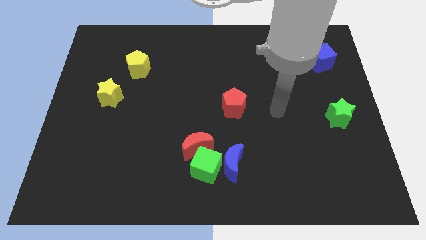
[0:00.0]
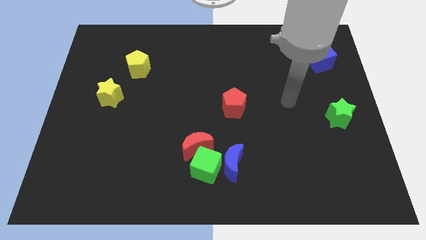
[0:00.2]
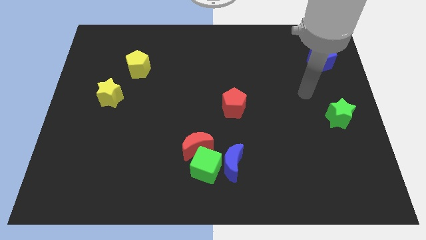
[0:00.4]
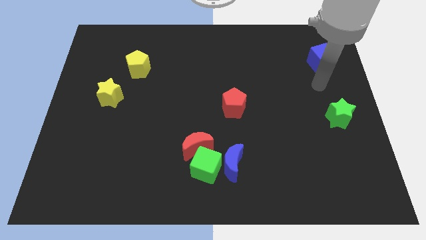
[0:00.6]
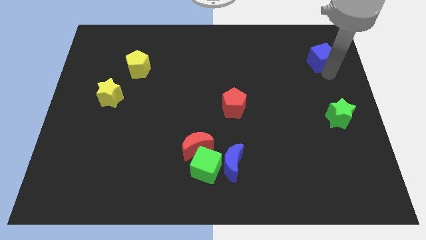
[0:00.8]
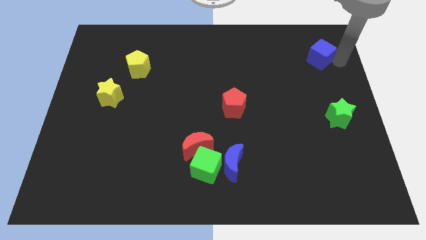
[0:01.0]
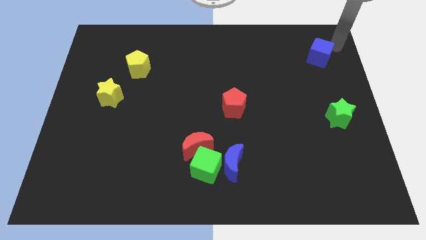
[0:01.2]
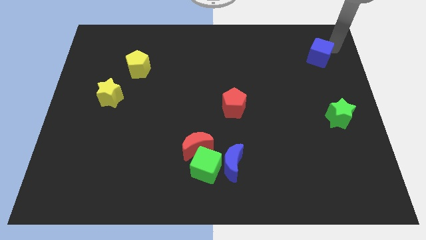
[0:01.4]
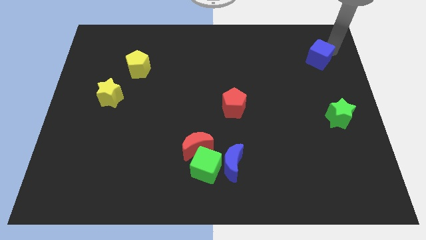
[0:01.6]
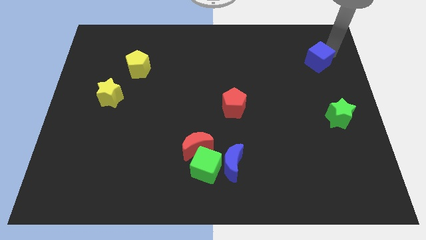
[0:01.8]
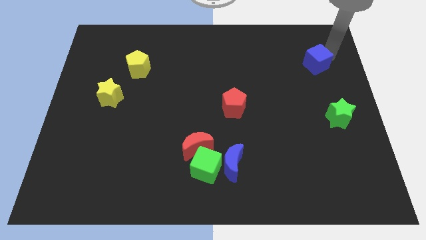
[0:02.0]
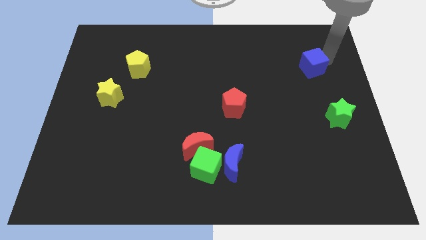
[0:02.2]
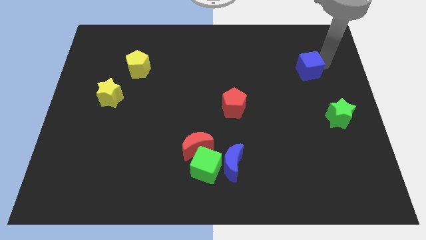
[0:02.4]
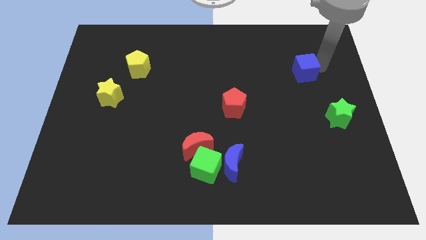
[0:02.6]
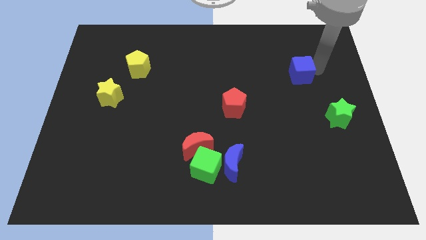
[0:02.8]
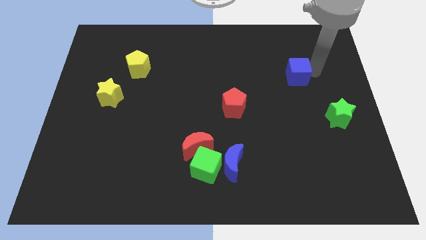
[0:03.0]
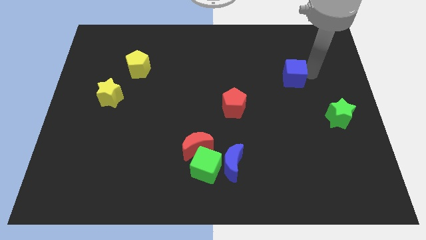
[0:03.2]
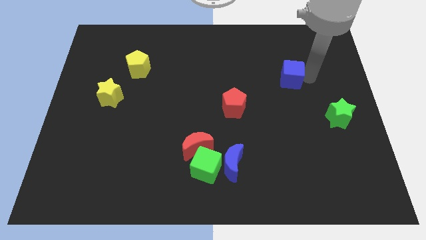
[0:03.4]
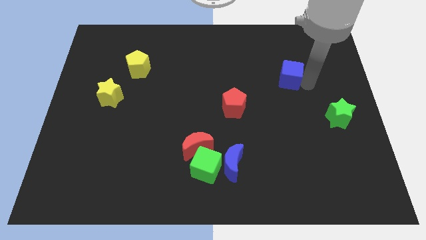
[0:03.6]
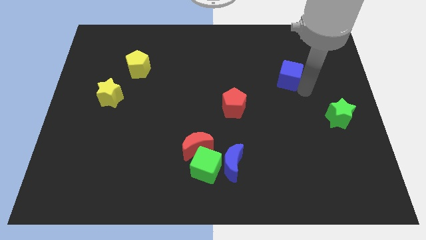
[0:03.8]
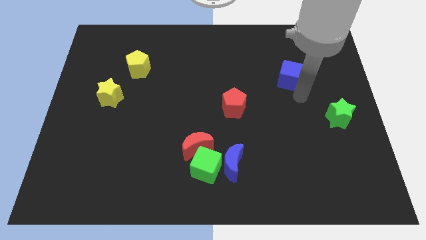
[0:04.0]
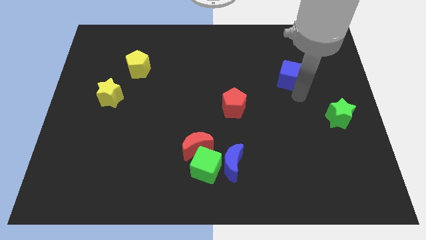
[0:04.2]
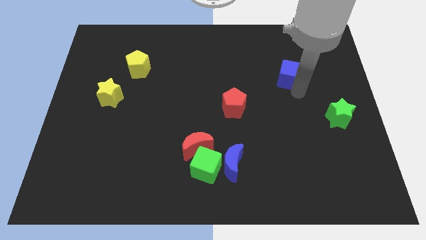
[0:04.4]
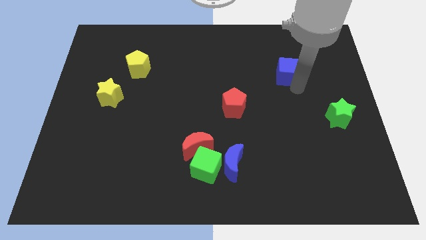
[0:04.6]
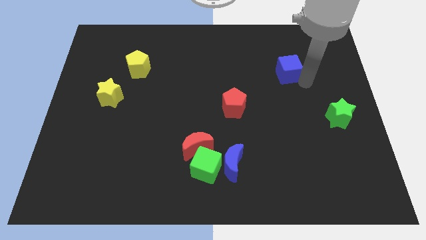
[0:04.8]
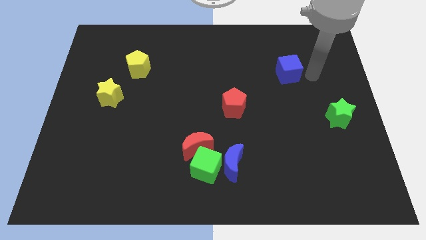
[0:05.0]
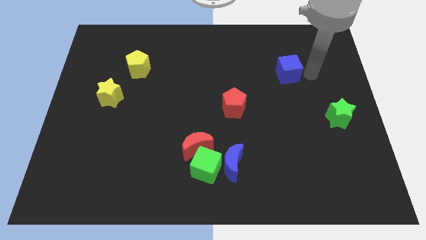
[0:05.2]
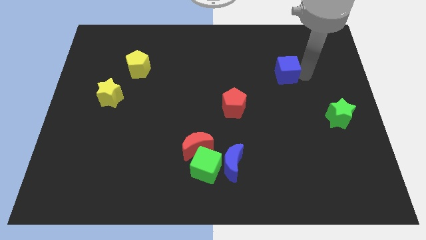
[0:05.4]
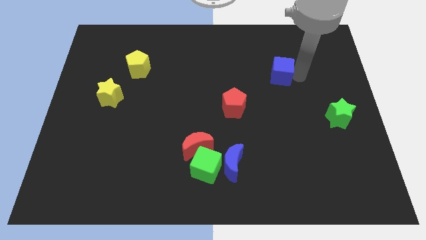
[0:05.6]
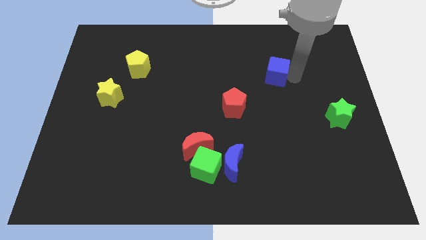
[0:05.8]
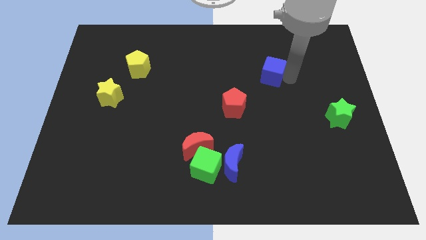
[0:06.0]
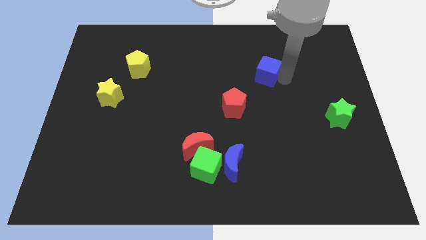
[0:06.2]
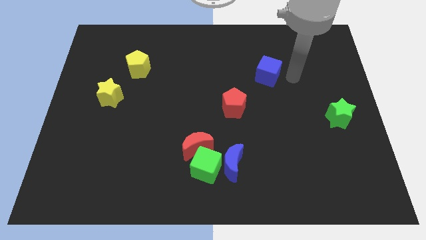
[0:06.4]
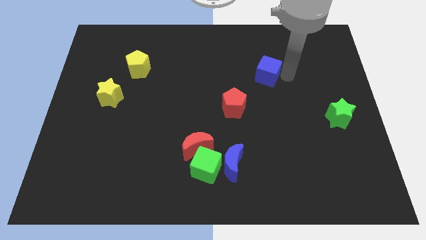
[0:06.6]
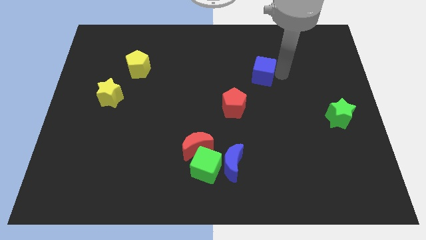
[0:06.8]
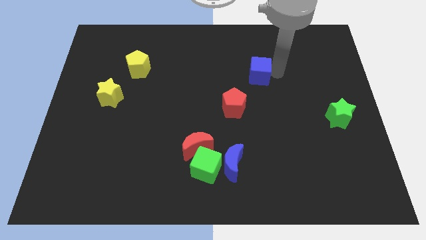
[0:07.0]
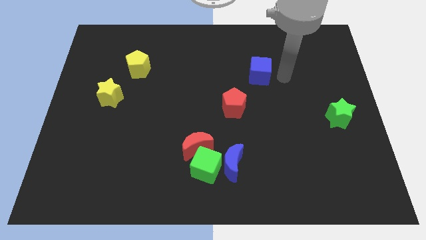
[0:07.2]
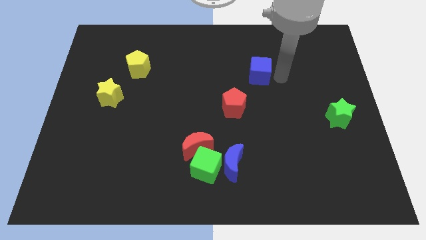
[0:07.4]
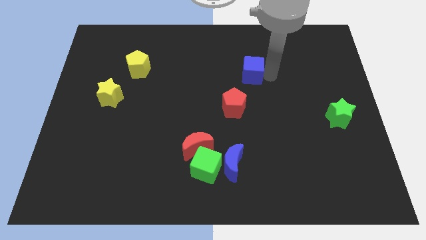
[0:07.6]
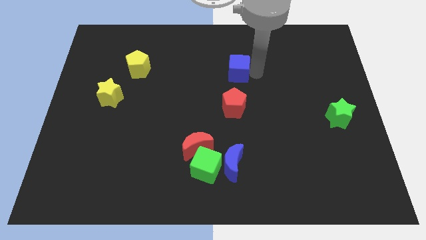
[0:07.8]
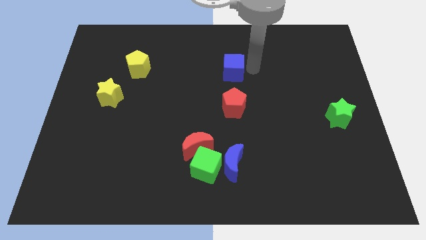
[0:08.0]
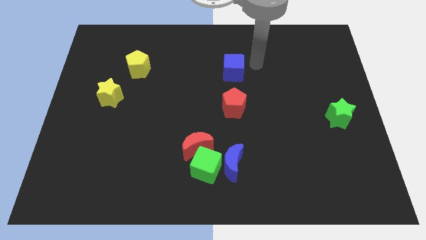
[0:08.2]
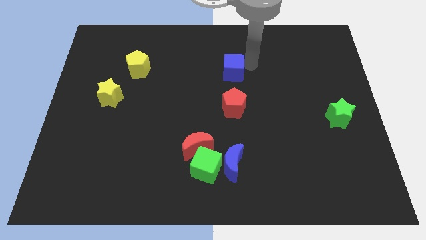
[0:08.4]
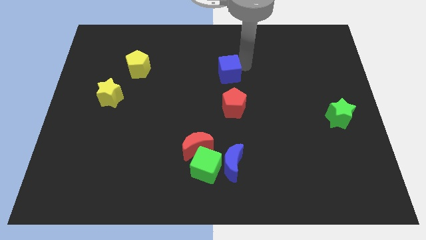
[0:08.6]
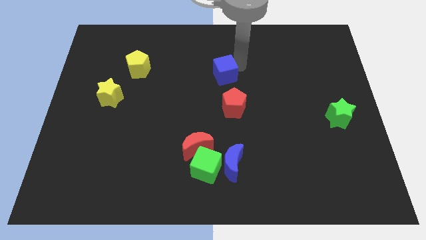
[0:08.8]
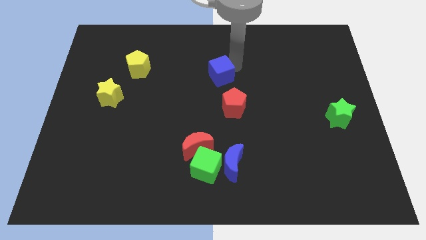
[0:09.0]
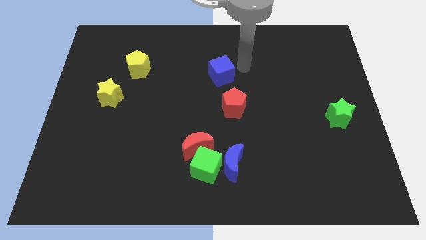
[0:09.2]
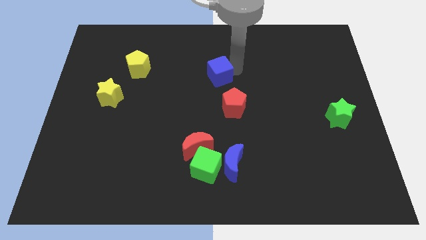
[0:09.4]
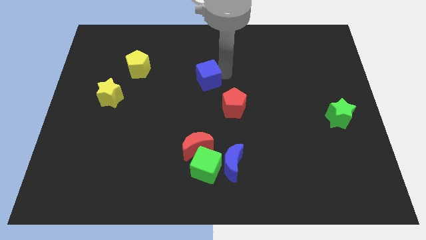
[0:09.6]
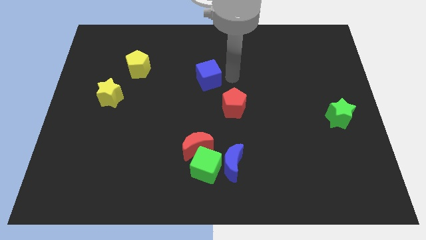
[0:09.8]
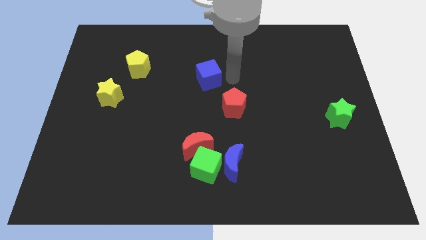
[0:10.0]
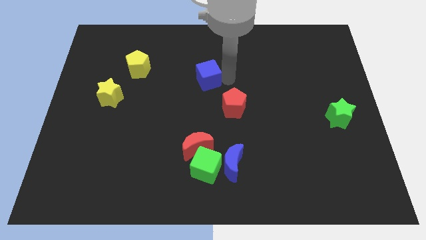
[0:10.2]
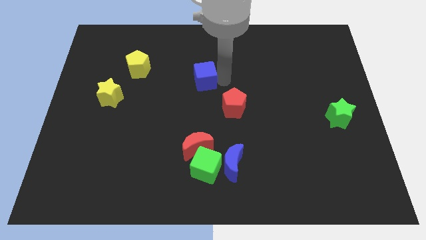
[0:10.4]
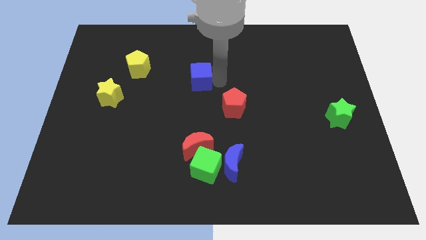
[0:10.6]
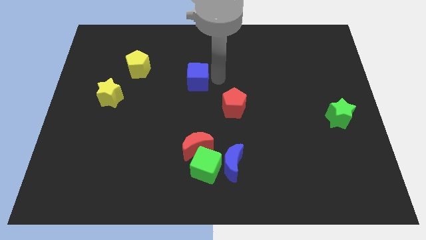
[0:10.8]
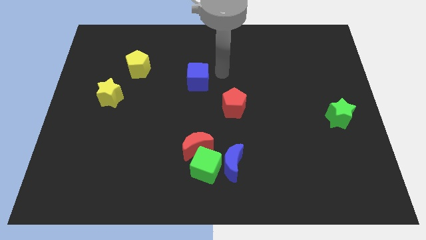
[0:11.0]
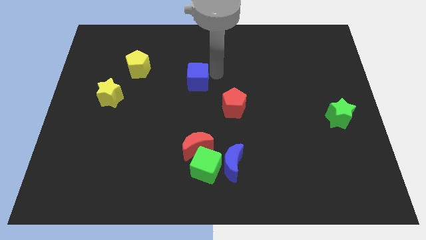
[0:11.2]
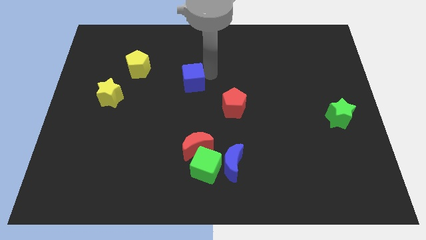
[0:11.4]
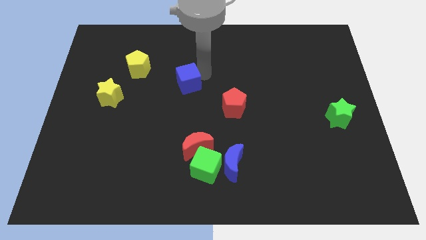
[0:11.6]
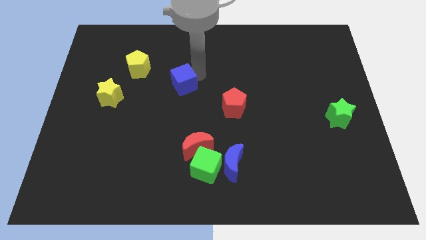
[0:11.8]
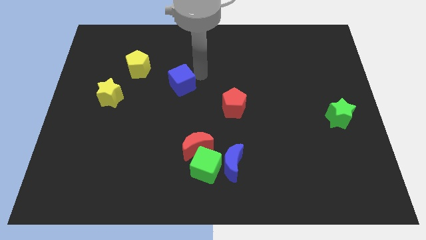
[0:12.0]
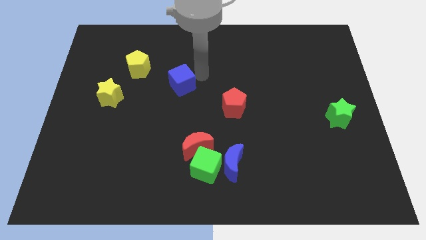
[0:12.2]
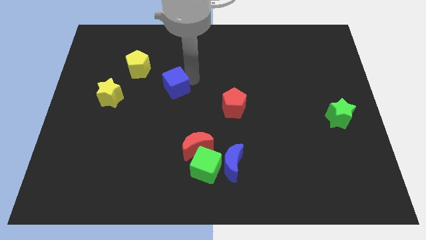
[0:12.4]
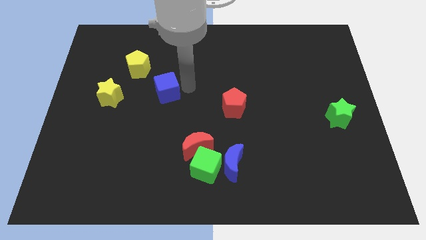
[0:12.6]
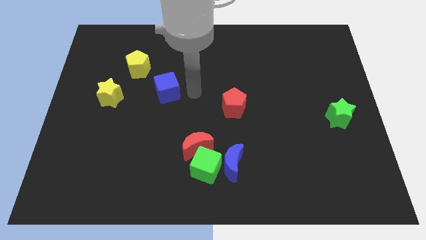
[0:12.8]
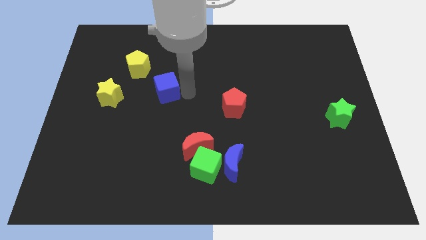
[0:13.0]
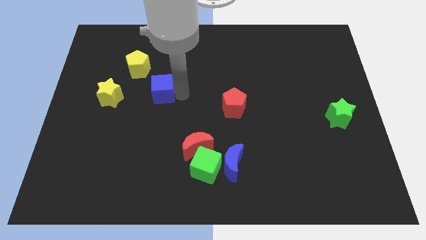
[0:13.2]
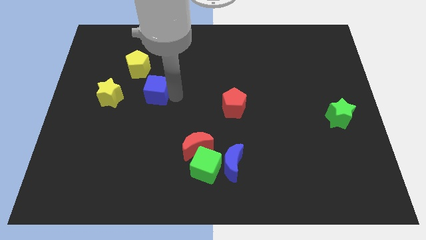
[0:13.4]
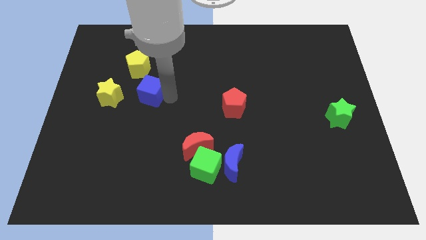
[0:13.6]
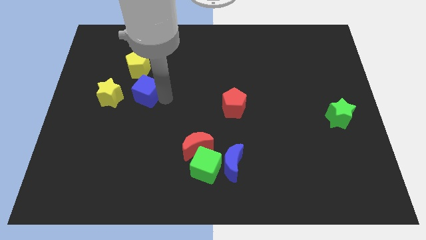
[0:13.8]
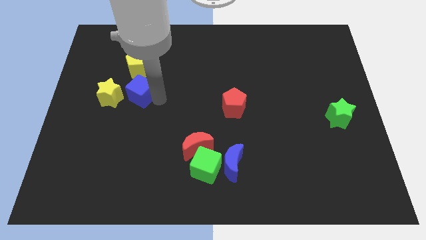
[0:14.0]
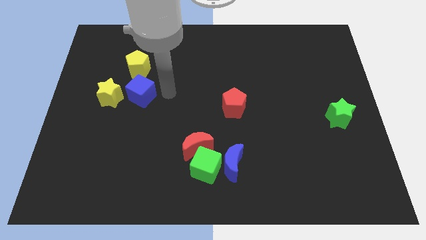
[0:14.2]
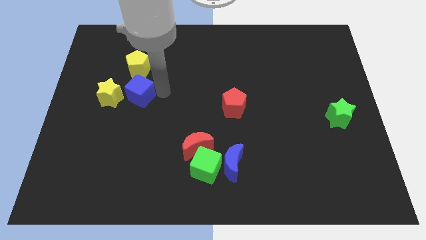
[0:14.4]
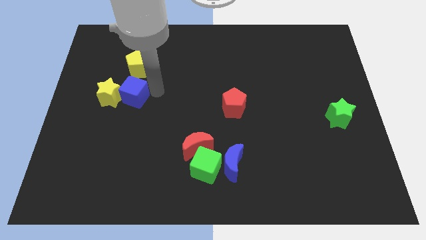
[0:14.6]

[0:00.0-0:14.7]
put the blue cube to the yellow star

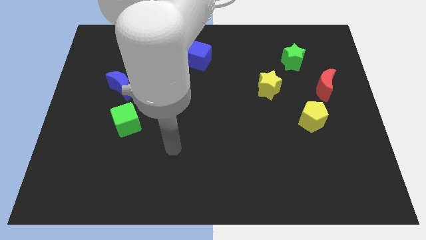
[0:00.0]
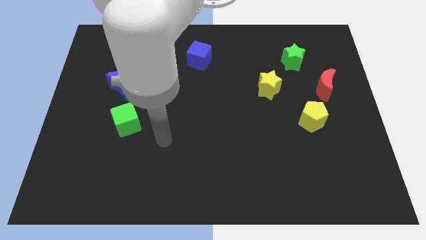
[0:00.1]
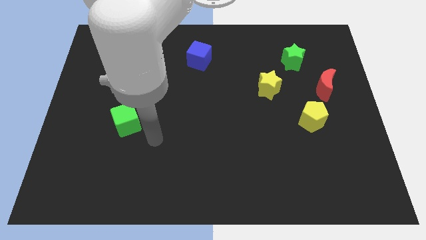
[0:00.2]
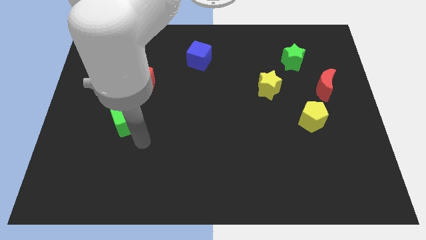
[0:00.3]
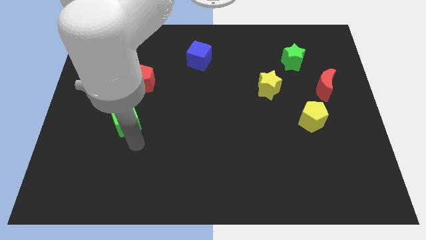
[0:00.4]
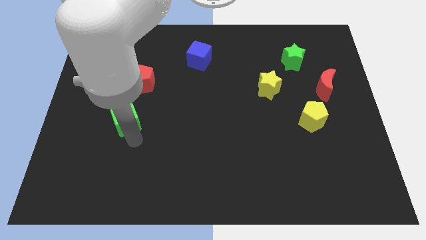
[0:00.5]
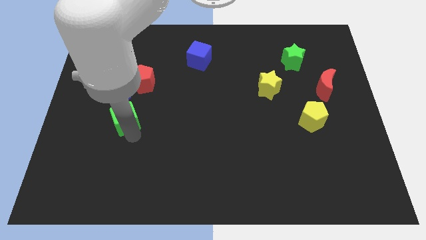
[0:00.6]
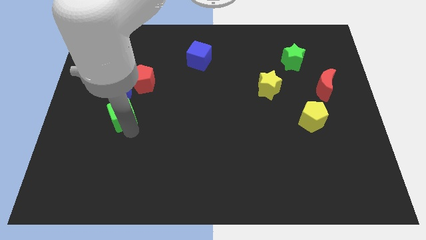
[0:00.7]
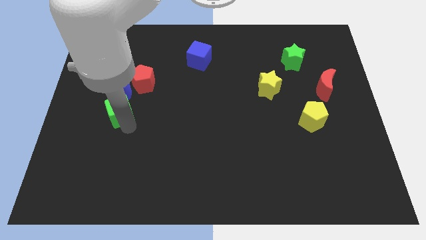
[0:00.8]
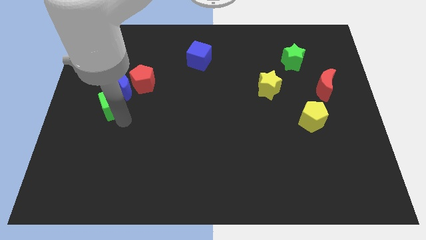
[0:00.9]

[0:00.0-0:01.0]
move the green cube close to the blue moon
